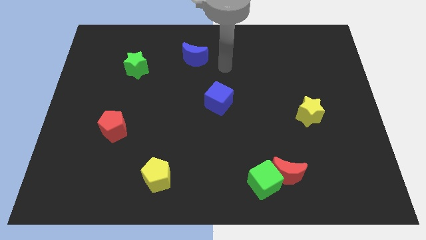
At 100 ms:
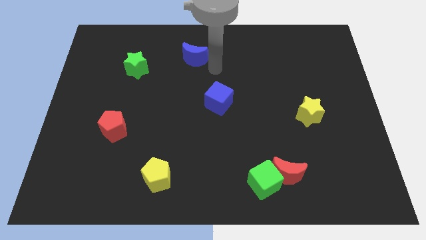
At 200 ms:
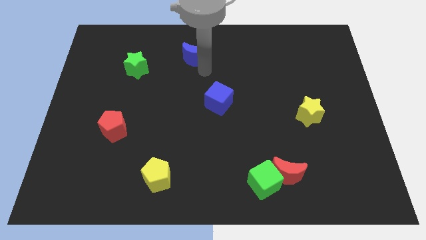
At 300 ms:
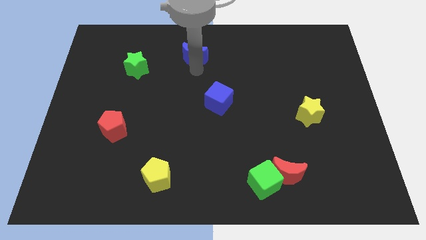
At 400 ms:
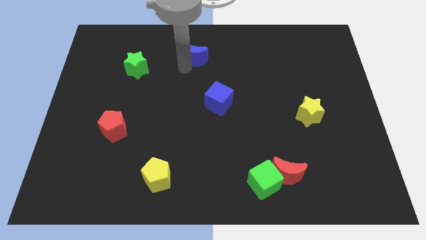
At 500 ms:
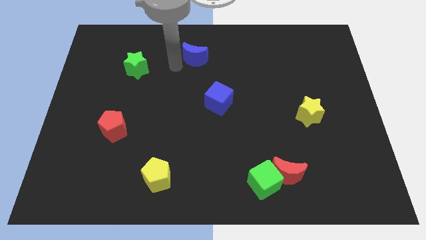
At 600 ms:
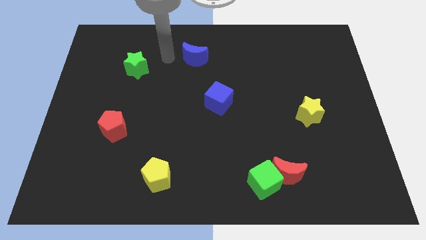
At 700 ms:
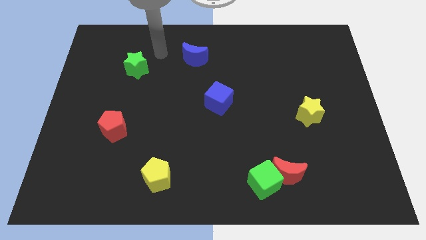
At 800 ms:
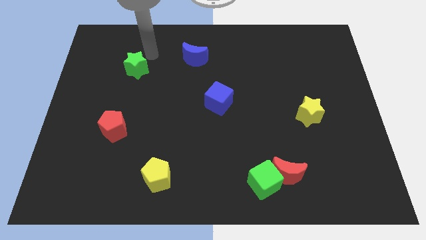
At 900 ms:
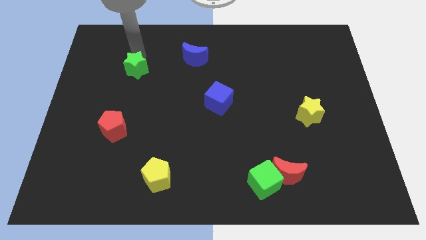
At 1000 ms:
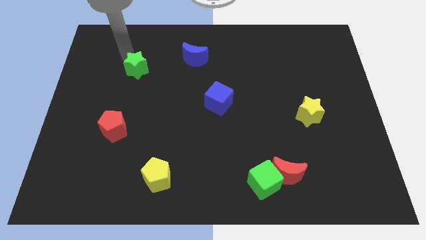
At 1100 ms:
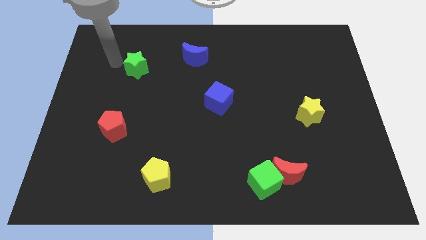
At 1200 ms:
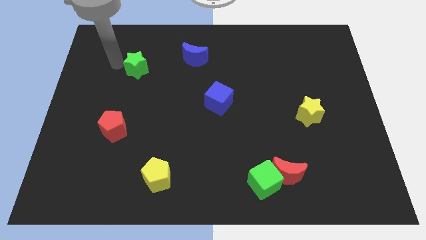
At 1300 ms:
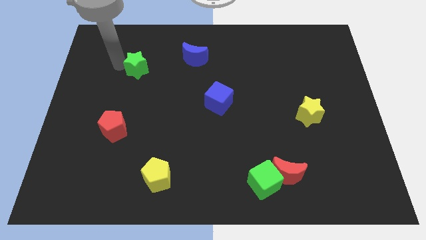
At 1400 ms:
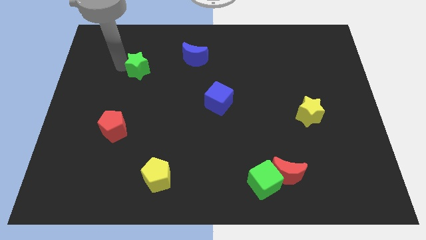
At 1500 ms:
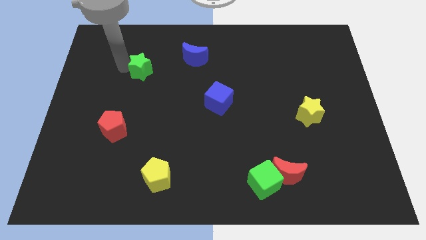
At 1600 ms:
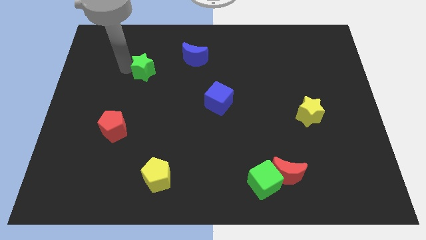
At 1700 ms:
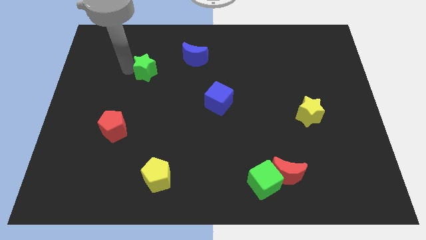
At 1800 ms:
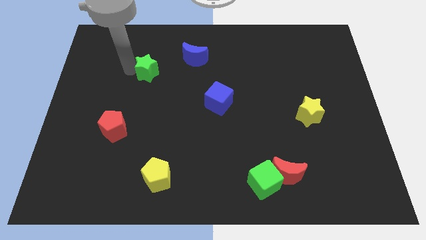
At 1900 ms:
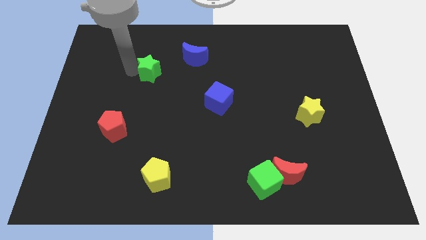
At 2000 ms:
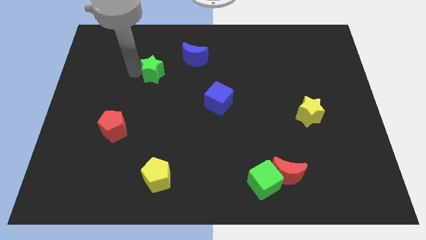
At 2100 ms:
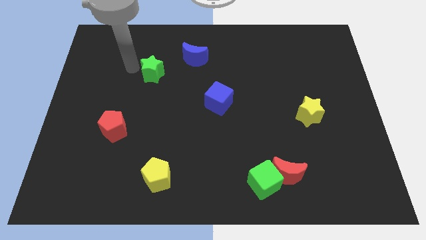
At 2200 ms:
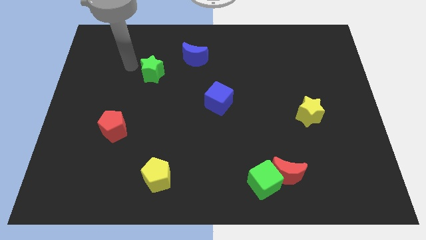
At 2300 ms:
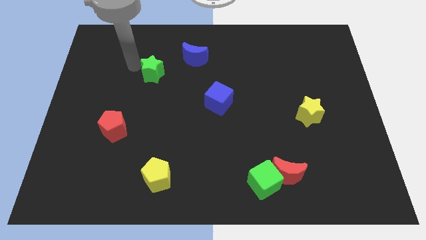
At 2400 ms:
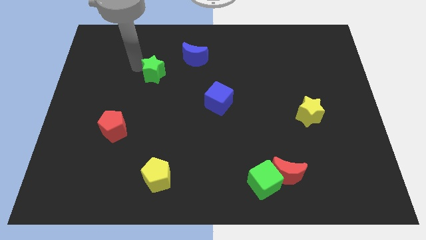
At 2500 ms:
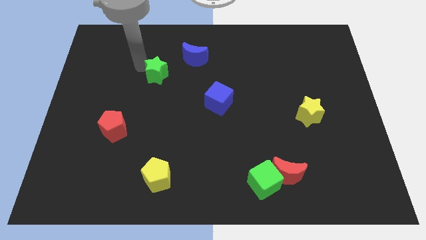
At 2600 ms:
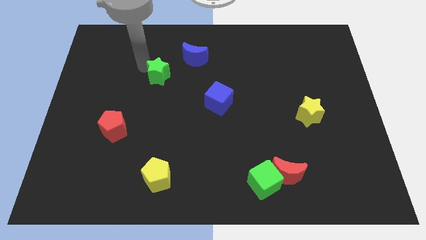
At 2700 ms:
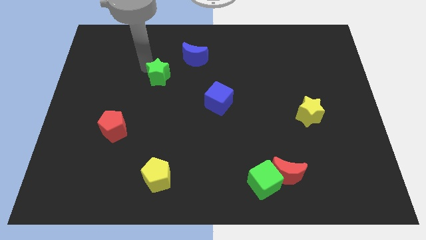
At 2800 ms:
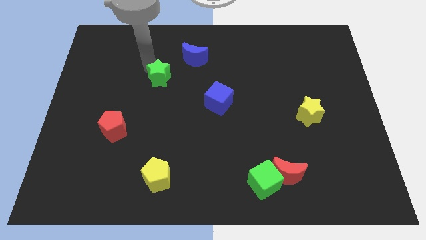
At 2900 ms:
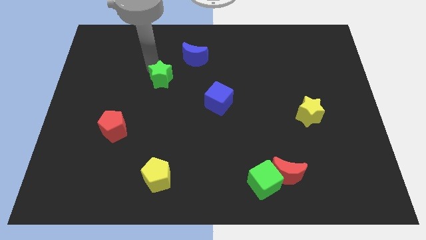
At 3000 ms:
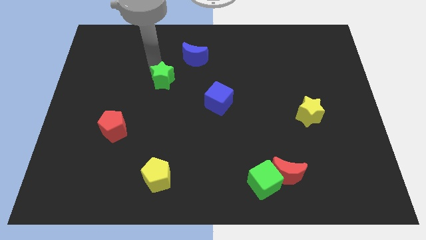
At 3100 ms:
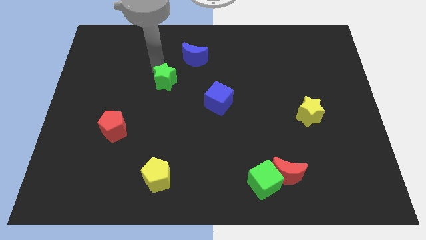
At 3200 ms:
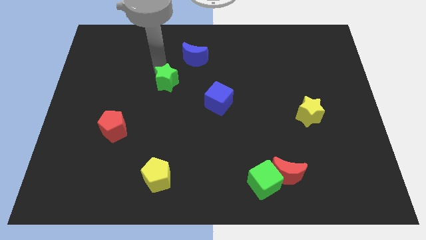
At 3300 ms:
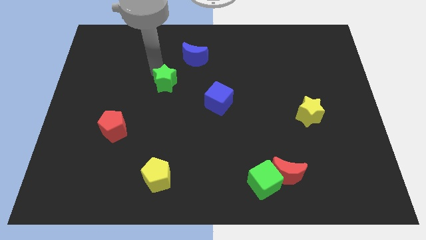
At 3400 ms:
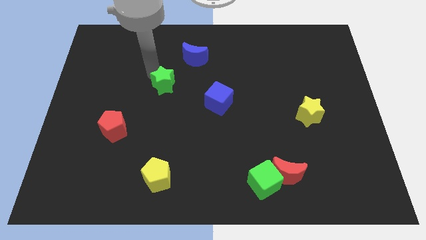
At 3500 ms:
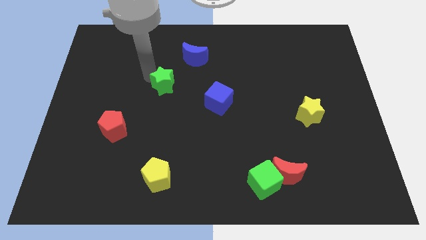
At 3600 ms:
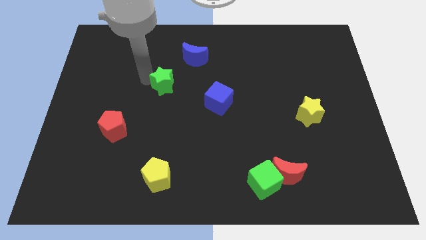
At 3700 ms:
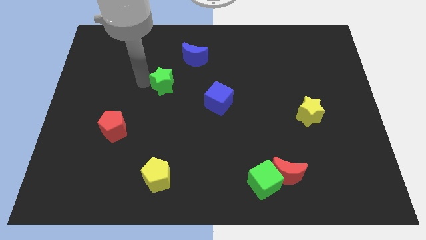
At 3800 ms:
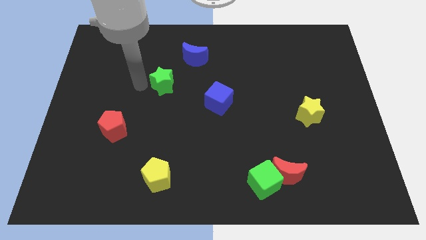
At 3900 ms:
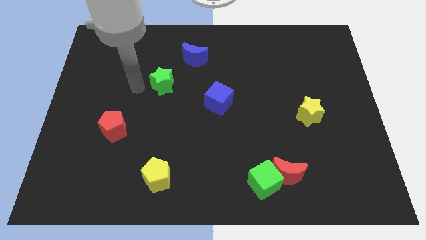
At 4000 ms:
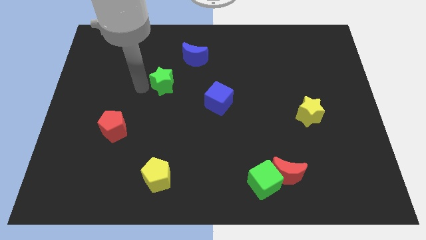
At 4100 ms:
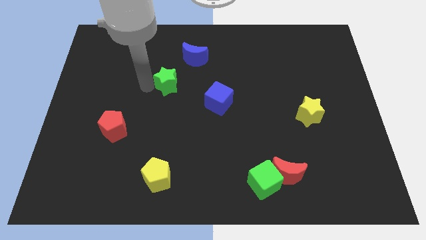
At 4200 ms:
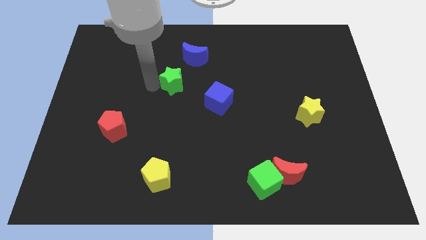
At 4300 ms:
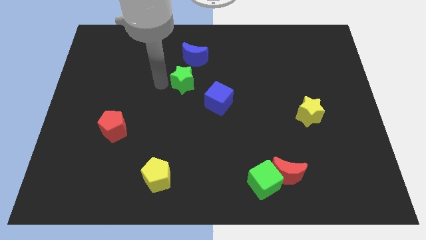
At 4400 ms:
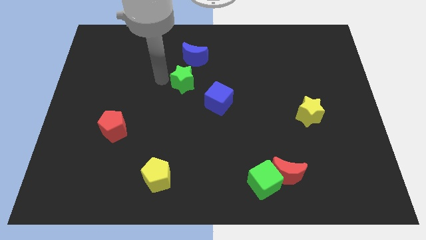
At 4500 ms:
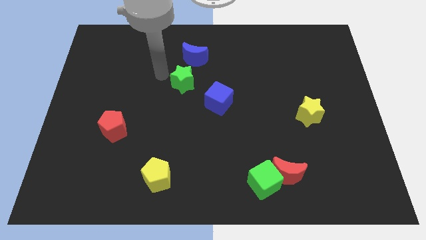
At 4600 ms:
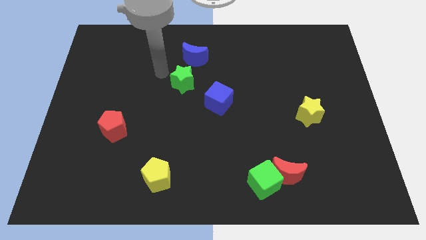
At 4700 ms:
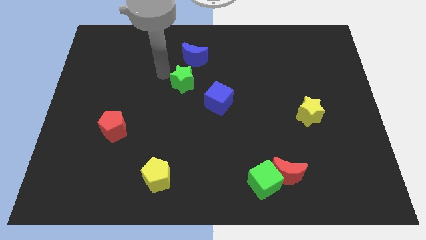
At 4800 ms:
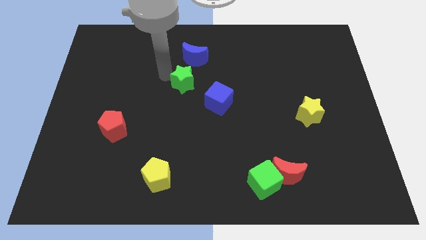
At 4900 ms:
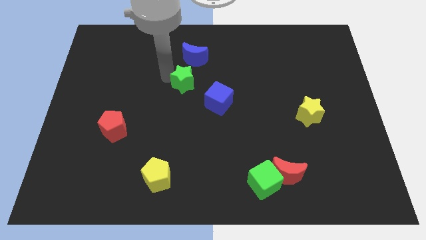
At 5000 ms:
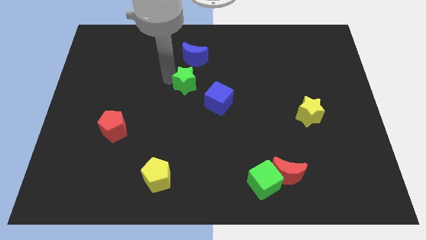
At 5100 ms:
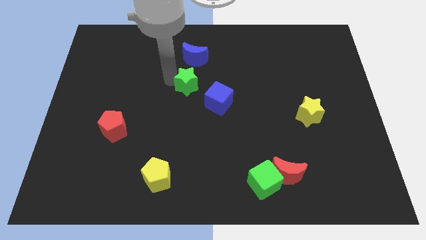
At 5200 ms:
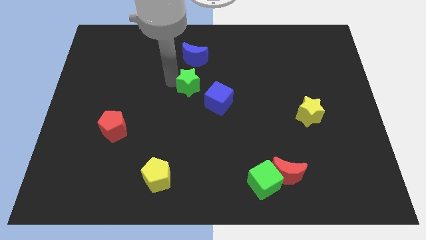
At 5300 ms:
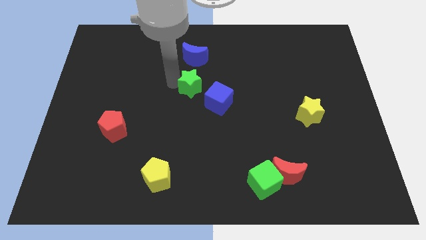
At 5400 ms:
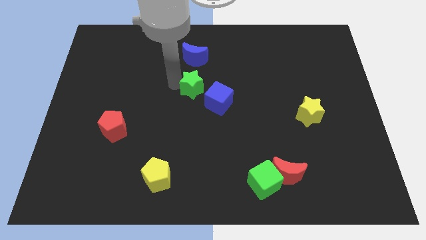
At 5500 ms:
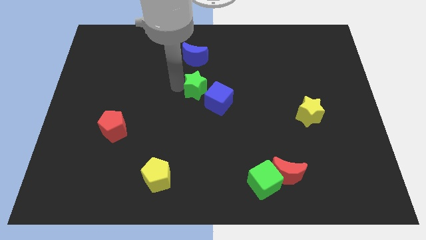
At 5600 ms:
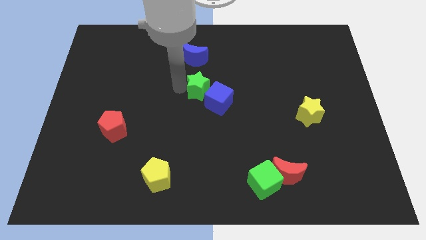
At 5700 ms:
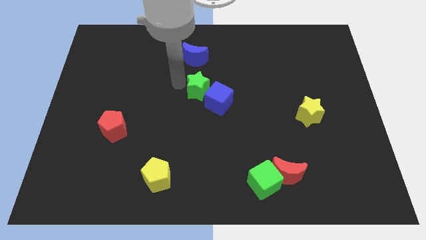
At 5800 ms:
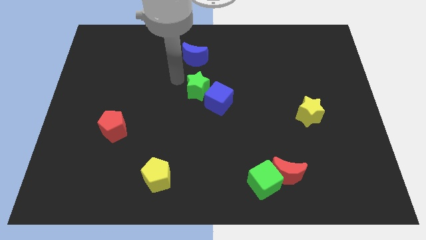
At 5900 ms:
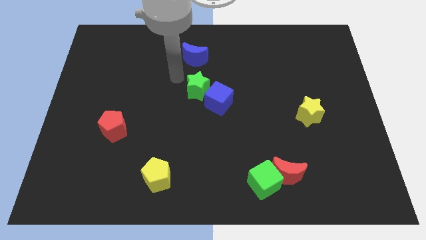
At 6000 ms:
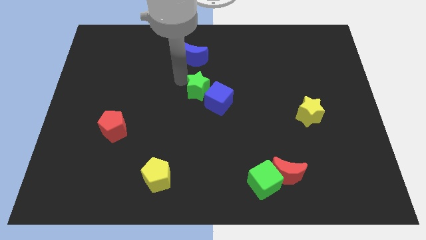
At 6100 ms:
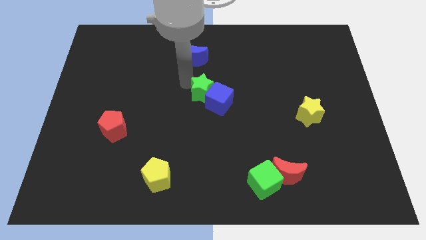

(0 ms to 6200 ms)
slide the green star towards the blue cube

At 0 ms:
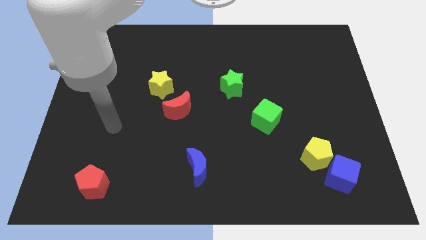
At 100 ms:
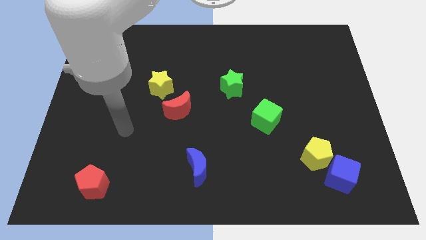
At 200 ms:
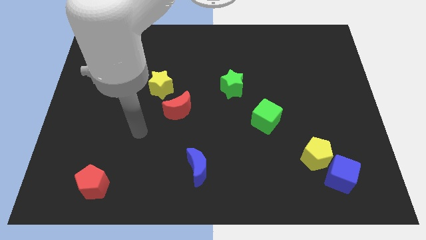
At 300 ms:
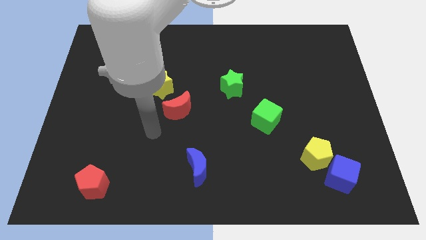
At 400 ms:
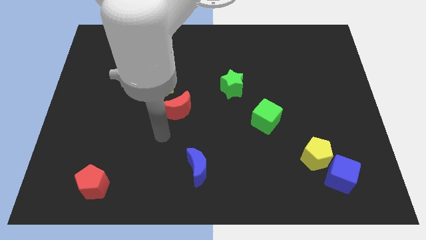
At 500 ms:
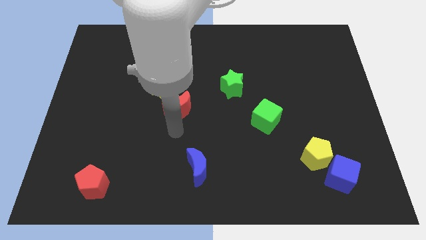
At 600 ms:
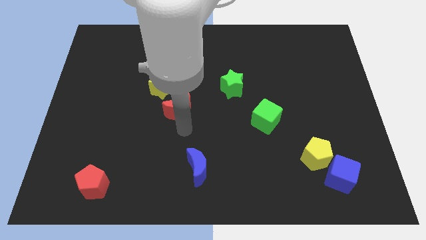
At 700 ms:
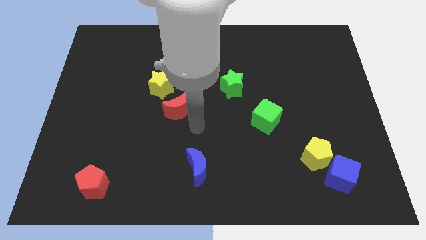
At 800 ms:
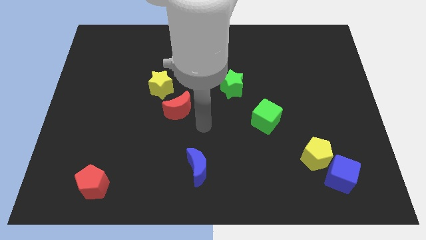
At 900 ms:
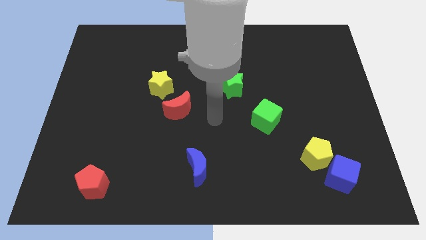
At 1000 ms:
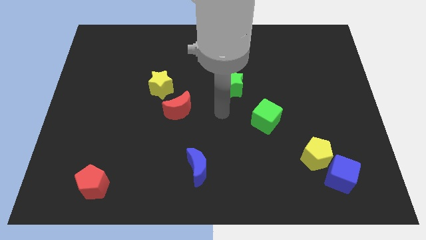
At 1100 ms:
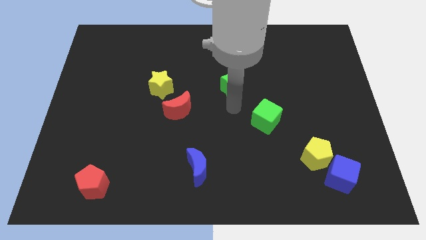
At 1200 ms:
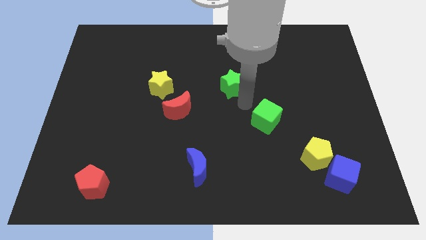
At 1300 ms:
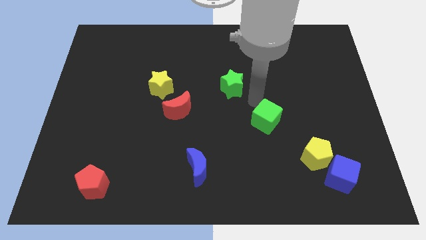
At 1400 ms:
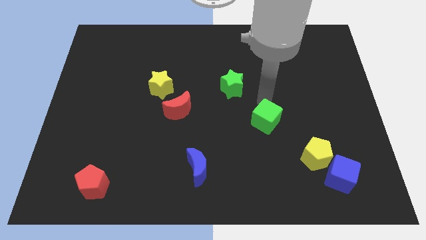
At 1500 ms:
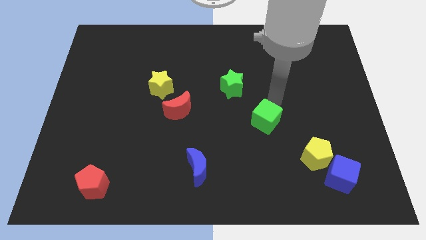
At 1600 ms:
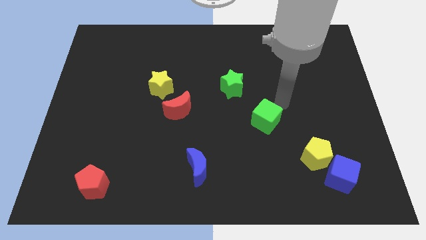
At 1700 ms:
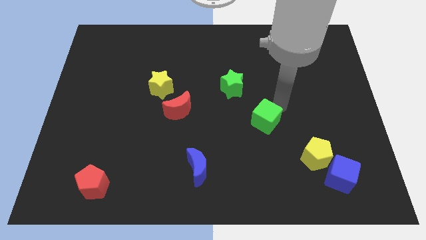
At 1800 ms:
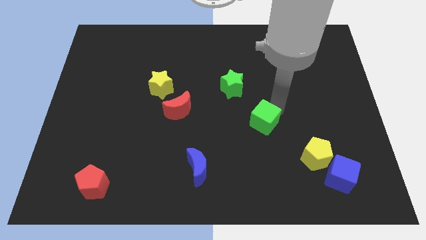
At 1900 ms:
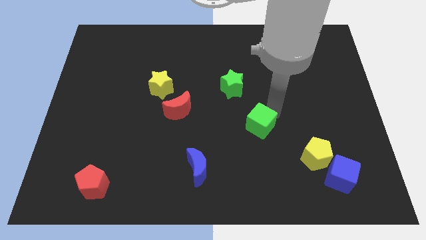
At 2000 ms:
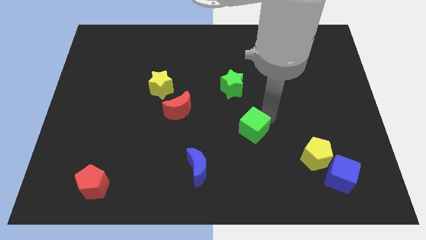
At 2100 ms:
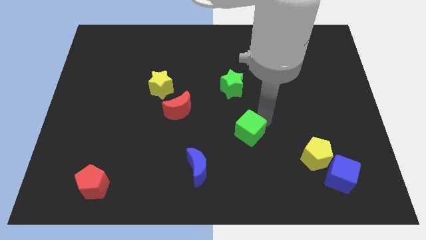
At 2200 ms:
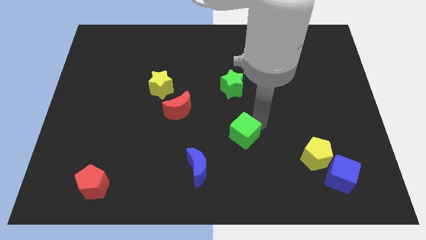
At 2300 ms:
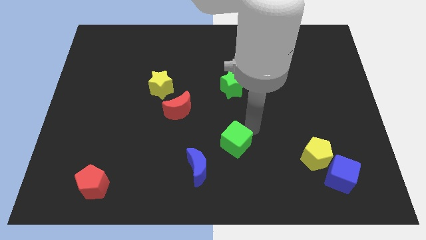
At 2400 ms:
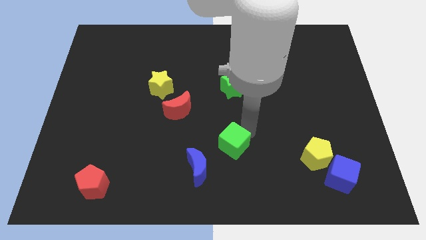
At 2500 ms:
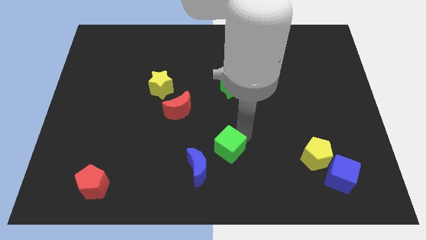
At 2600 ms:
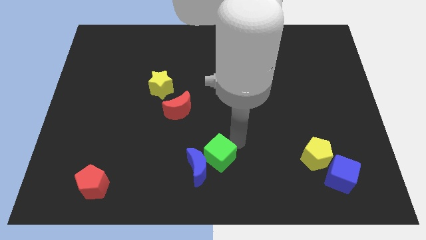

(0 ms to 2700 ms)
push the green cube next to the blue moon
